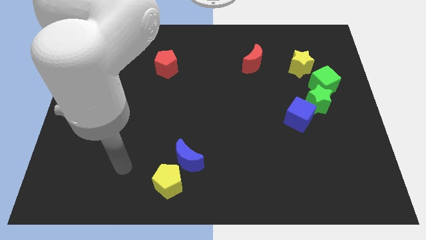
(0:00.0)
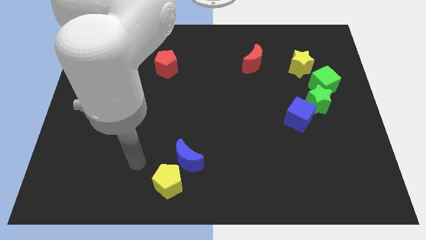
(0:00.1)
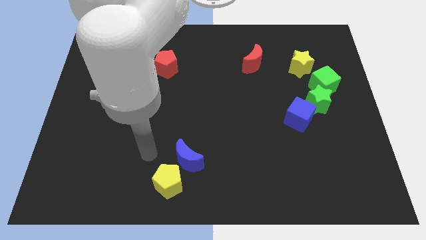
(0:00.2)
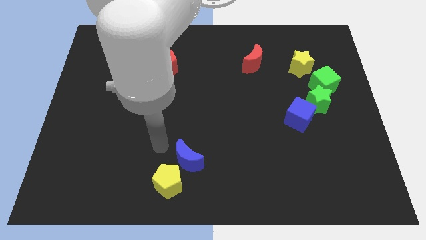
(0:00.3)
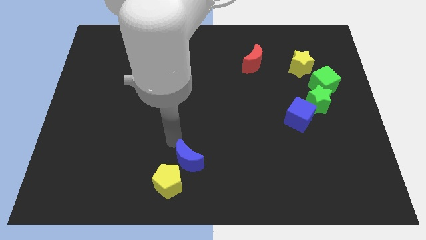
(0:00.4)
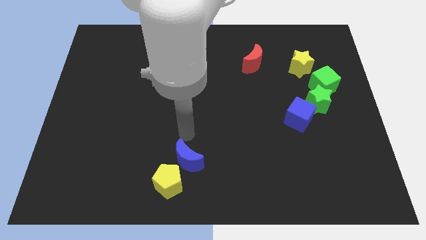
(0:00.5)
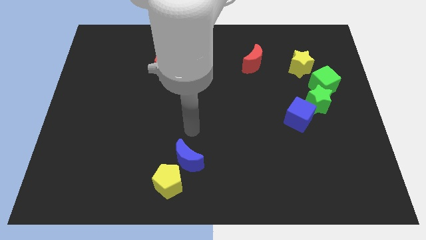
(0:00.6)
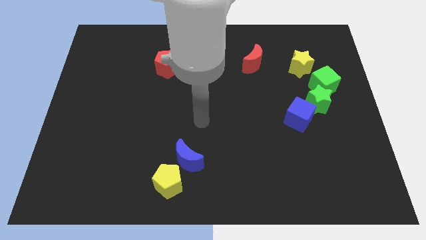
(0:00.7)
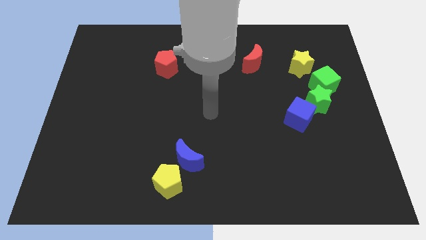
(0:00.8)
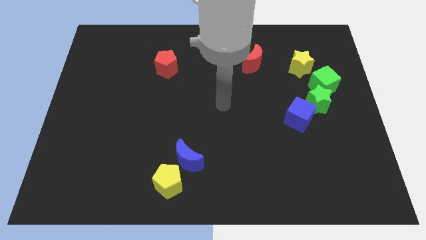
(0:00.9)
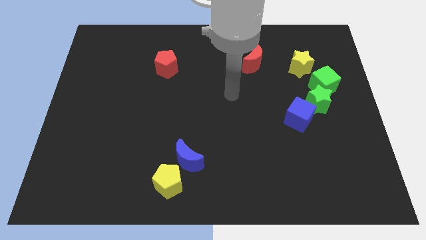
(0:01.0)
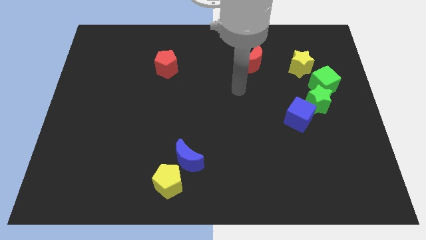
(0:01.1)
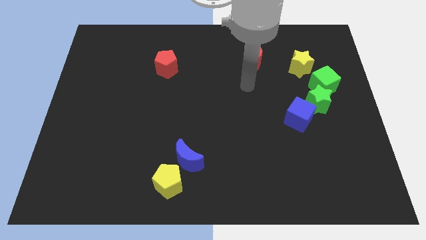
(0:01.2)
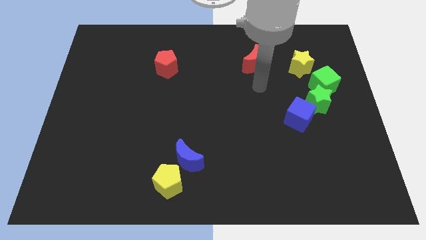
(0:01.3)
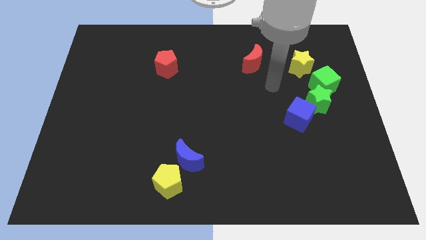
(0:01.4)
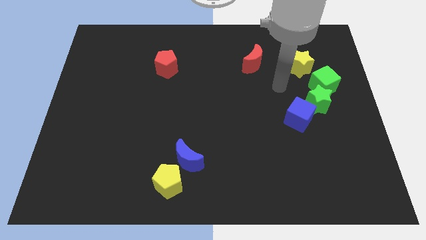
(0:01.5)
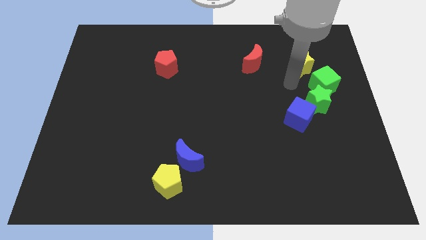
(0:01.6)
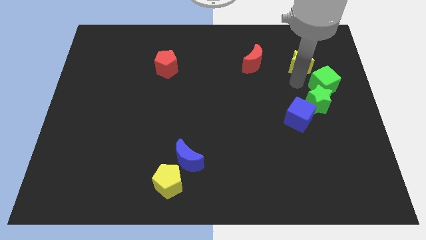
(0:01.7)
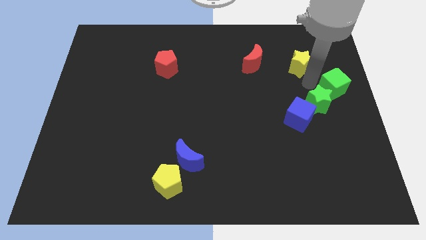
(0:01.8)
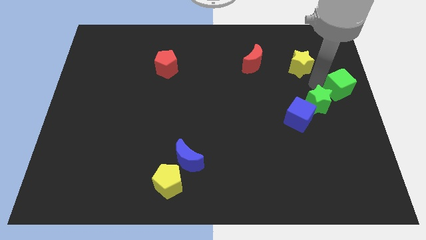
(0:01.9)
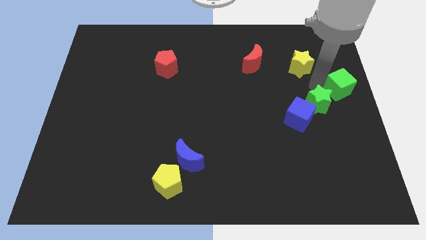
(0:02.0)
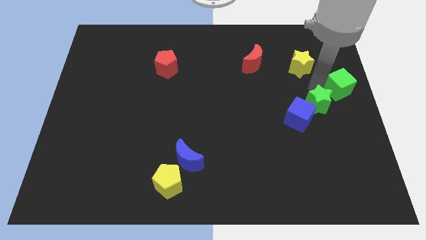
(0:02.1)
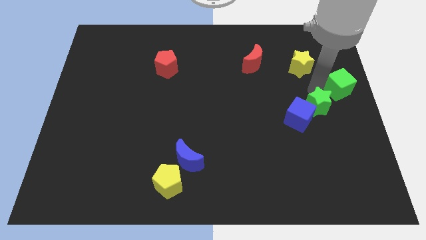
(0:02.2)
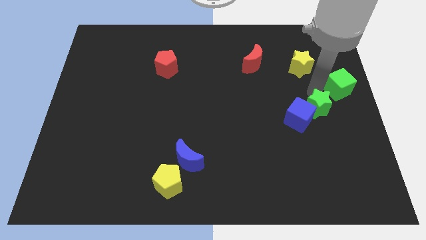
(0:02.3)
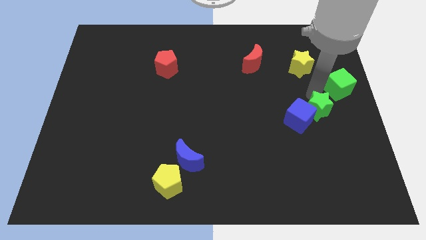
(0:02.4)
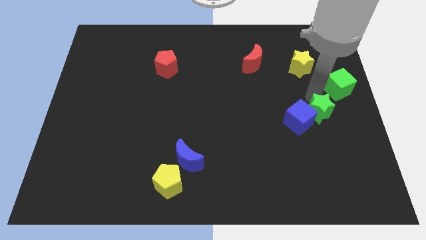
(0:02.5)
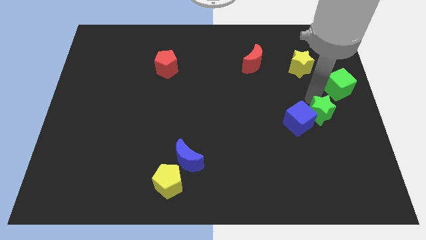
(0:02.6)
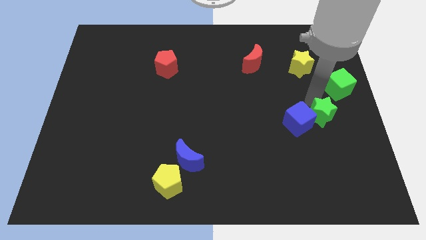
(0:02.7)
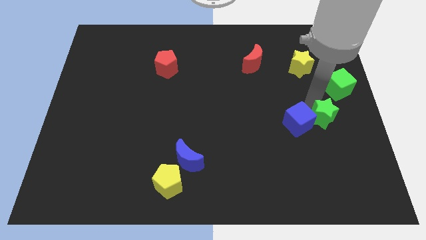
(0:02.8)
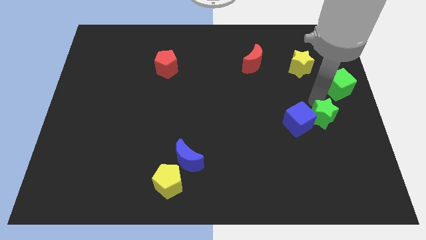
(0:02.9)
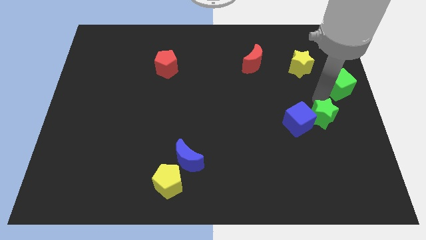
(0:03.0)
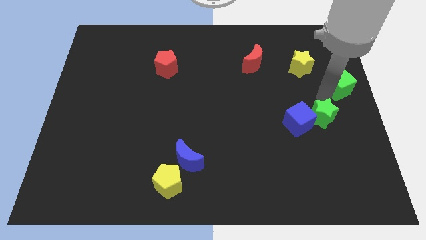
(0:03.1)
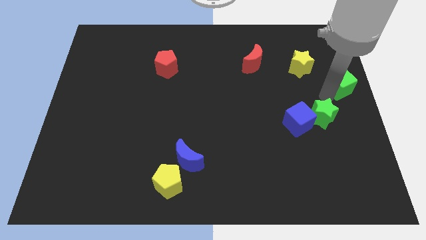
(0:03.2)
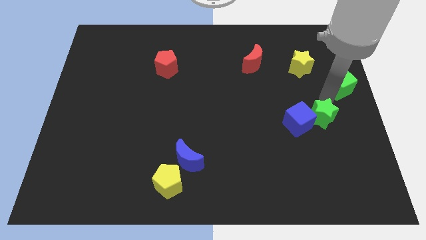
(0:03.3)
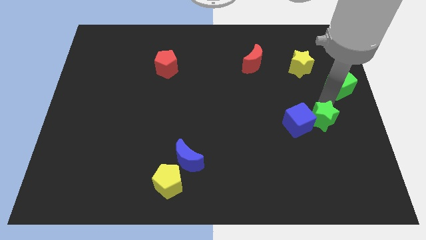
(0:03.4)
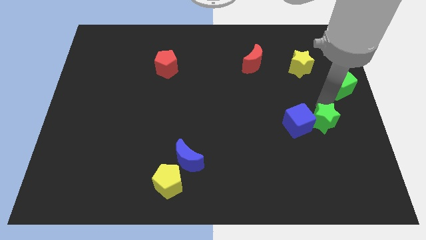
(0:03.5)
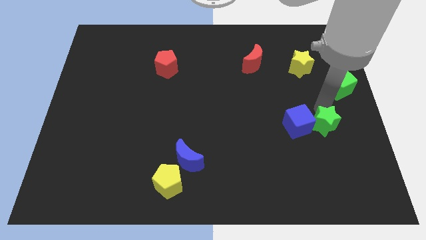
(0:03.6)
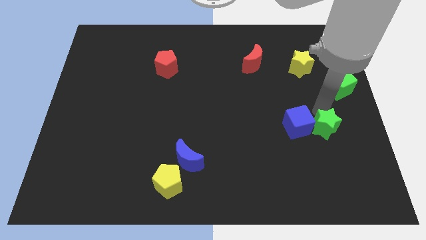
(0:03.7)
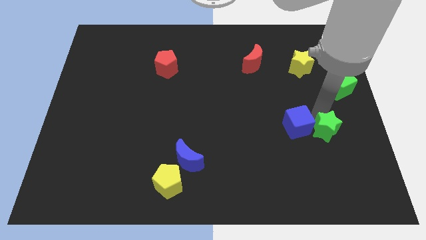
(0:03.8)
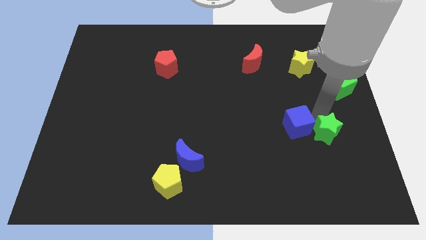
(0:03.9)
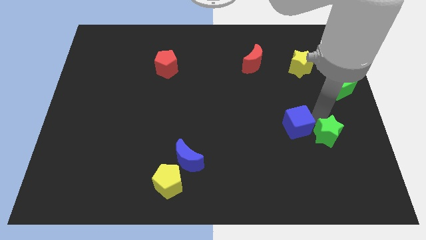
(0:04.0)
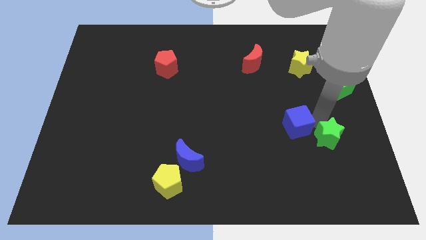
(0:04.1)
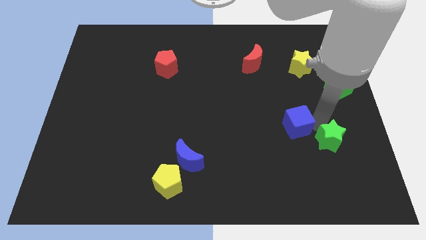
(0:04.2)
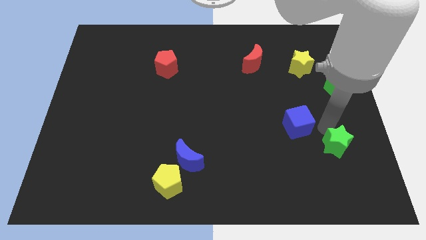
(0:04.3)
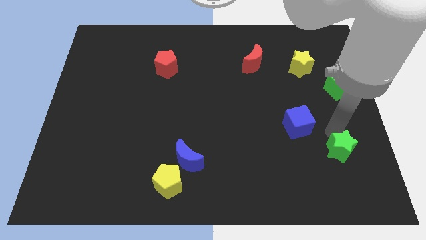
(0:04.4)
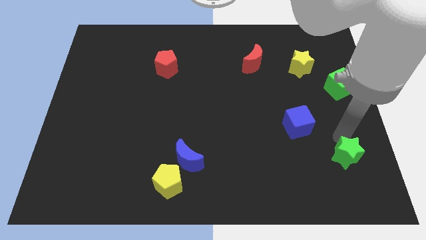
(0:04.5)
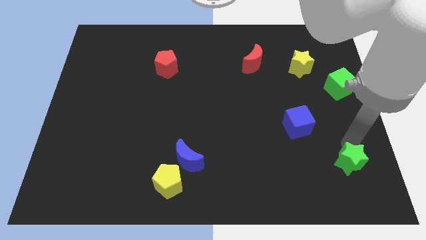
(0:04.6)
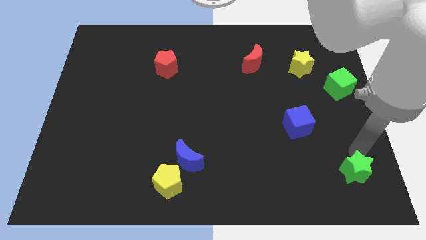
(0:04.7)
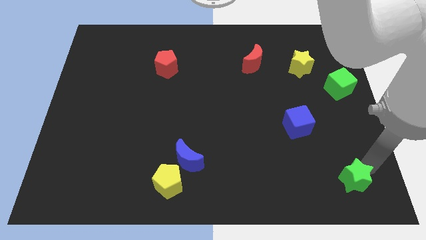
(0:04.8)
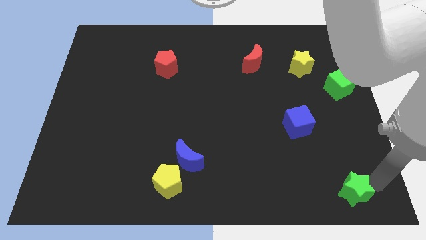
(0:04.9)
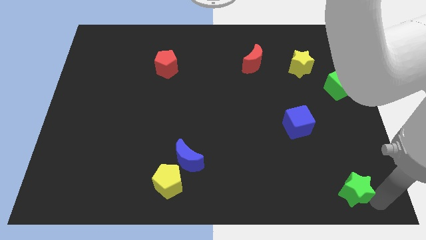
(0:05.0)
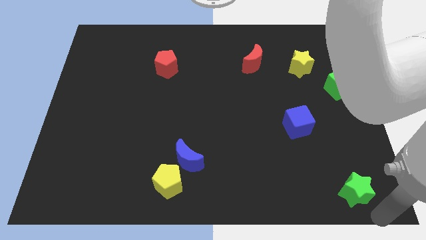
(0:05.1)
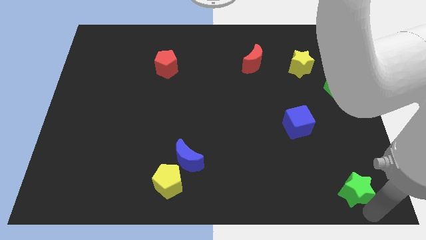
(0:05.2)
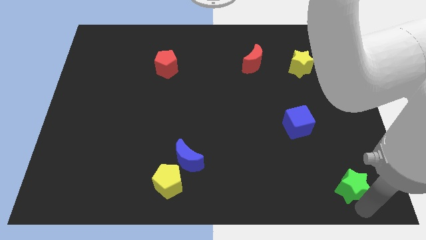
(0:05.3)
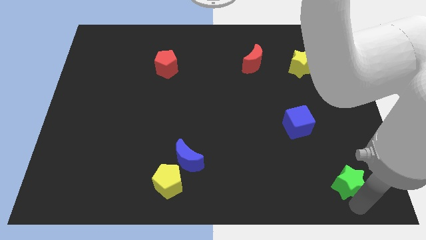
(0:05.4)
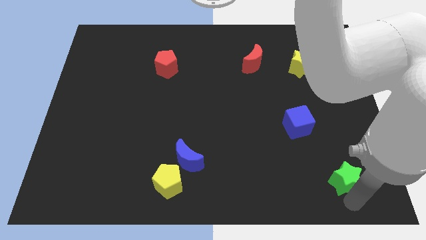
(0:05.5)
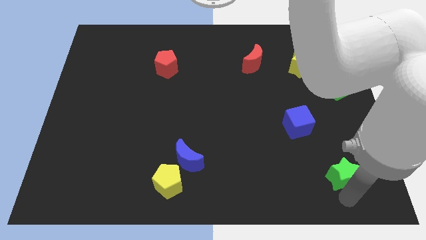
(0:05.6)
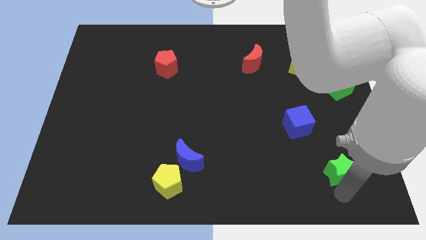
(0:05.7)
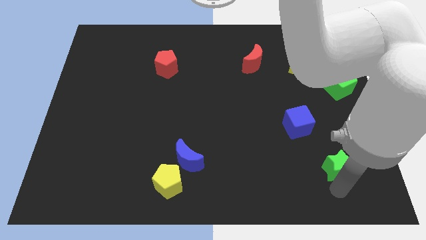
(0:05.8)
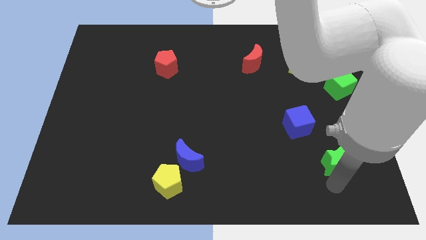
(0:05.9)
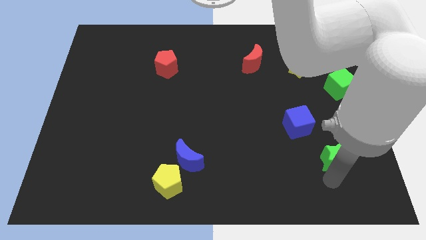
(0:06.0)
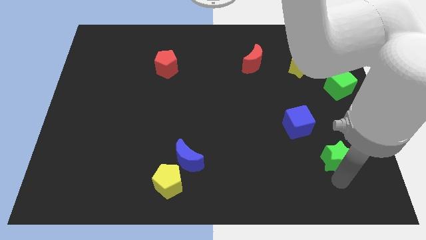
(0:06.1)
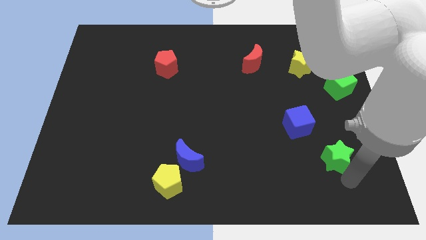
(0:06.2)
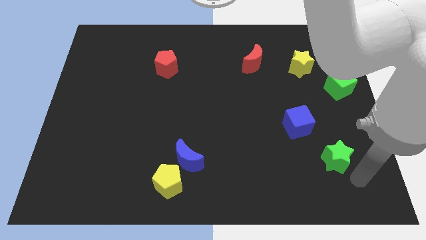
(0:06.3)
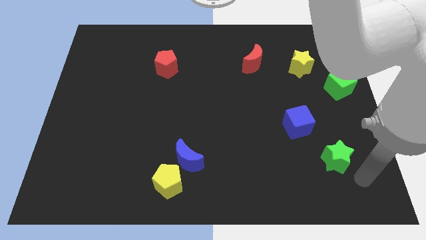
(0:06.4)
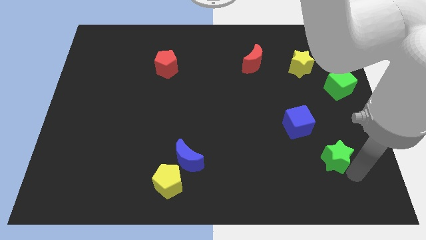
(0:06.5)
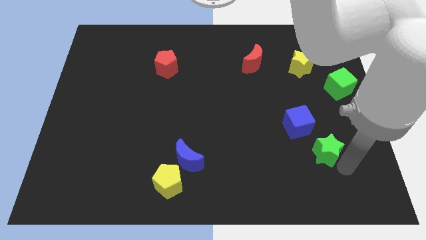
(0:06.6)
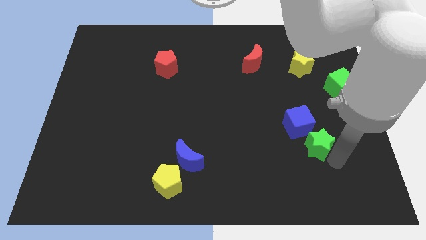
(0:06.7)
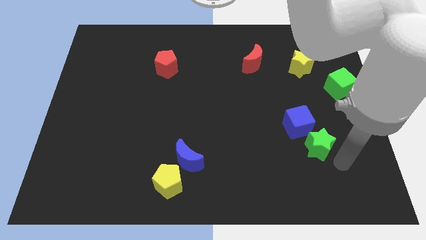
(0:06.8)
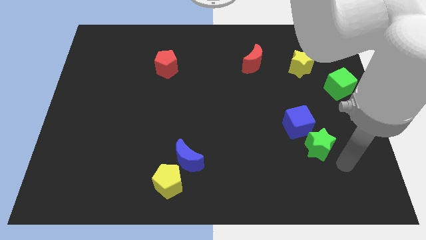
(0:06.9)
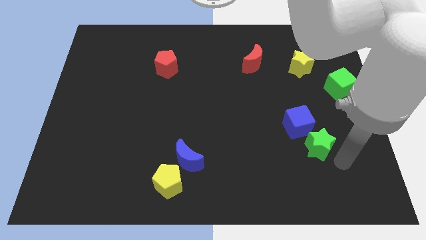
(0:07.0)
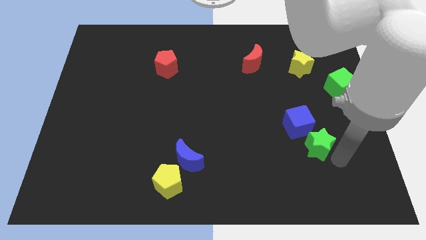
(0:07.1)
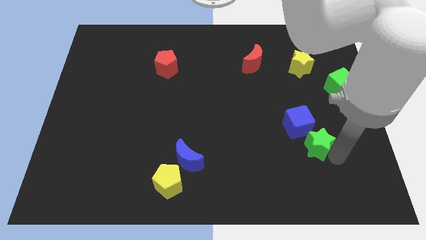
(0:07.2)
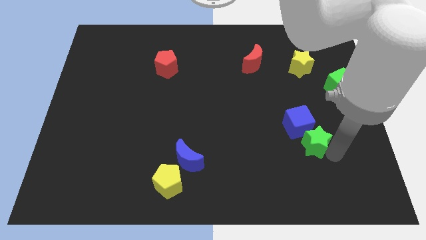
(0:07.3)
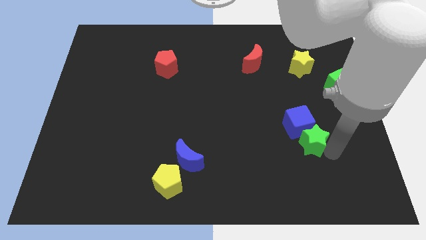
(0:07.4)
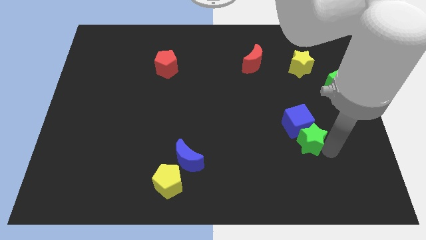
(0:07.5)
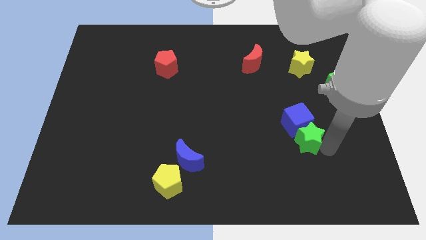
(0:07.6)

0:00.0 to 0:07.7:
push the green star to the bottom left side of the blue cube
